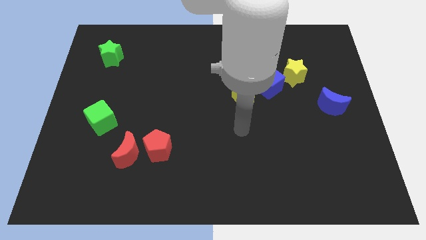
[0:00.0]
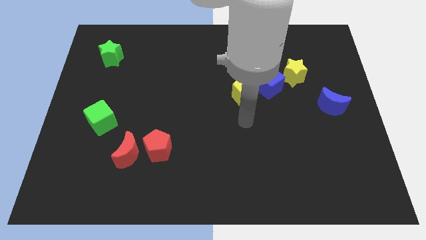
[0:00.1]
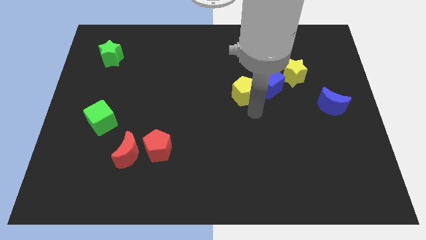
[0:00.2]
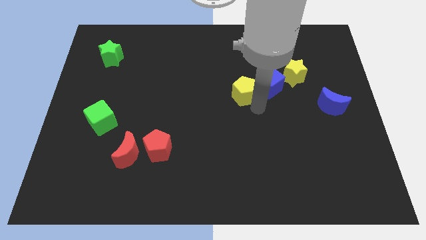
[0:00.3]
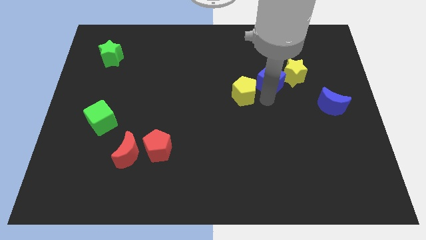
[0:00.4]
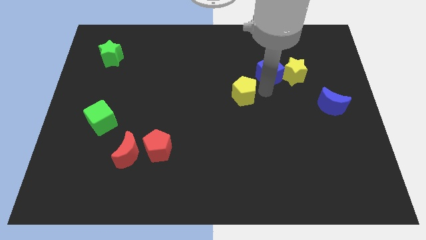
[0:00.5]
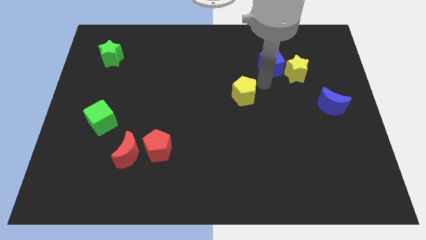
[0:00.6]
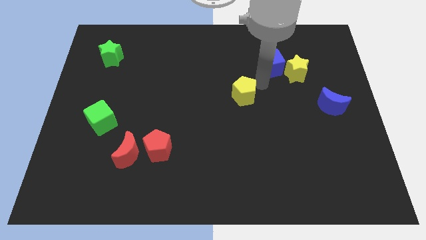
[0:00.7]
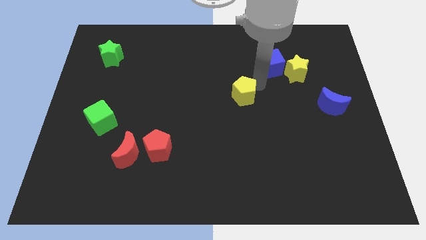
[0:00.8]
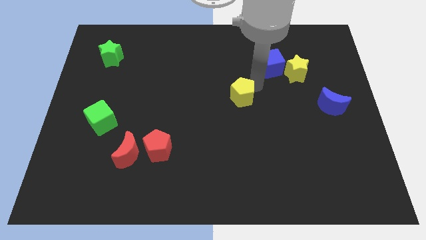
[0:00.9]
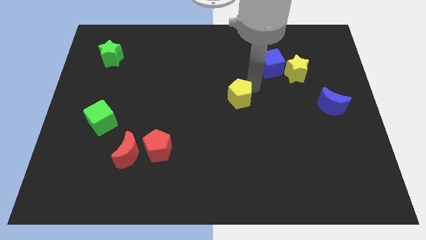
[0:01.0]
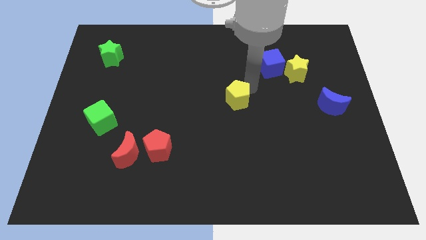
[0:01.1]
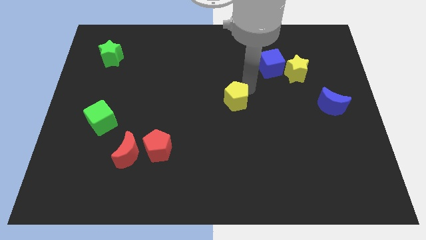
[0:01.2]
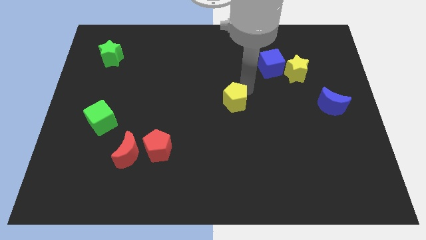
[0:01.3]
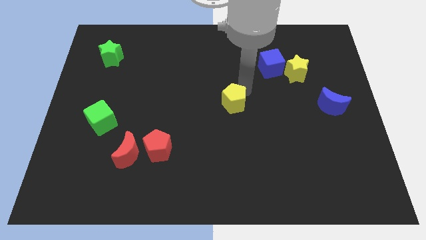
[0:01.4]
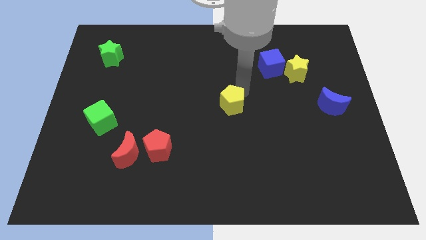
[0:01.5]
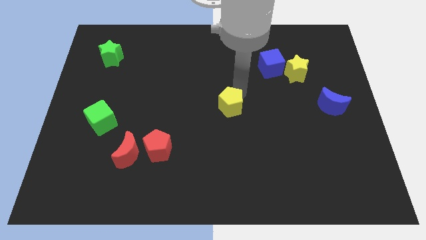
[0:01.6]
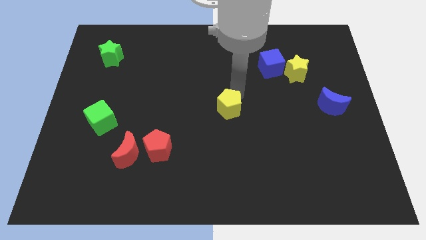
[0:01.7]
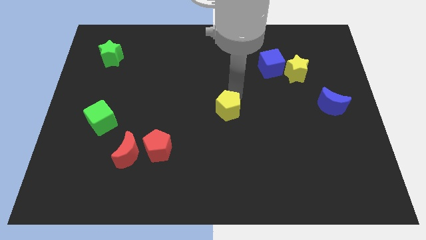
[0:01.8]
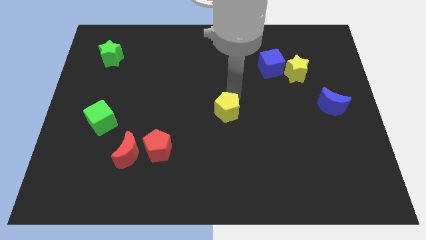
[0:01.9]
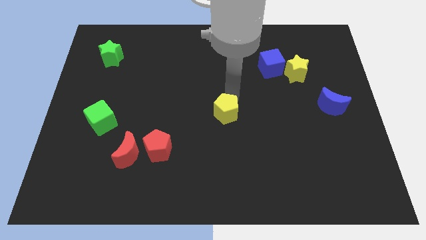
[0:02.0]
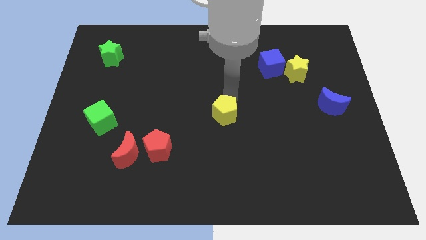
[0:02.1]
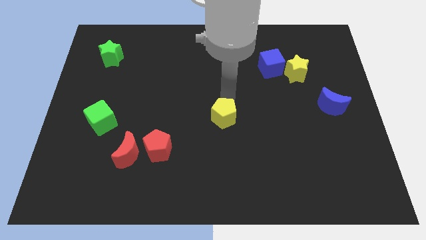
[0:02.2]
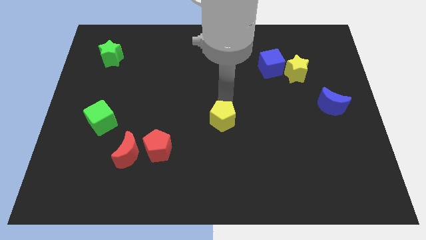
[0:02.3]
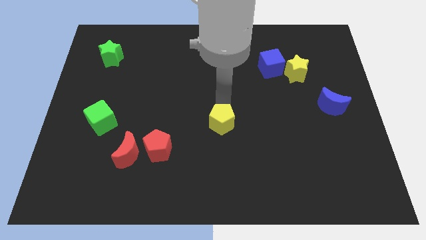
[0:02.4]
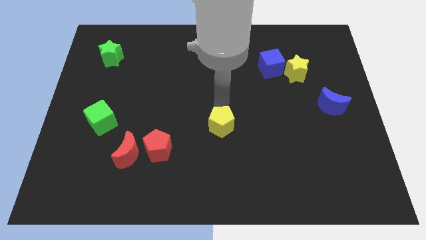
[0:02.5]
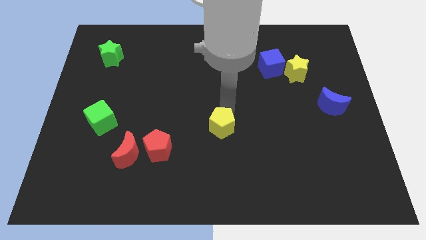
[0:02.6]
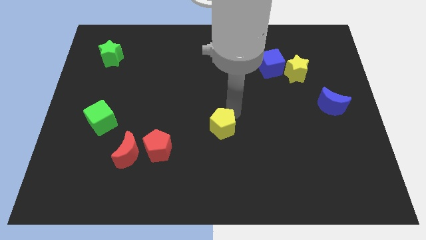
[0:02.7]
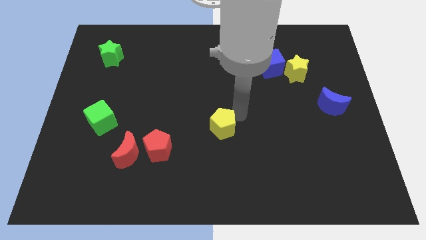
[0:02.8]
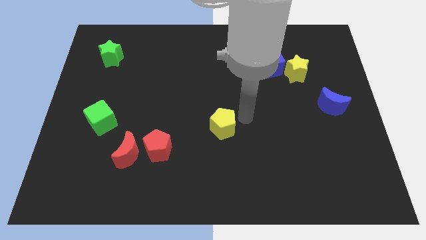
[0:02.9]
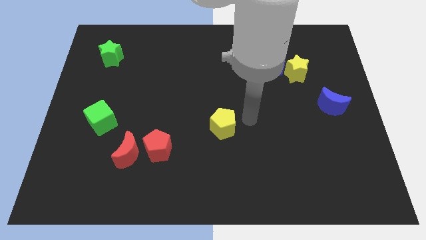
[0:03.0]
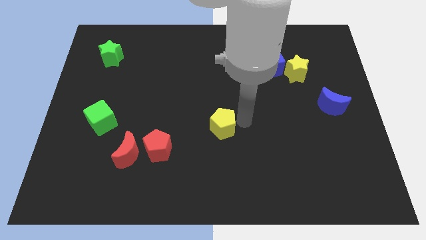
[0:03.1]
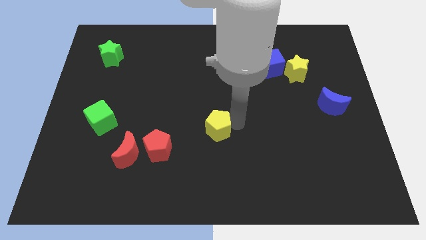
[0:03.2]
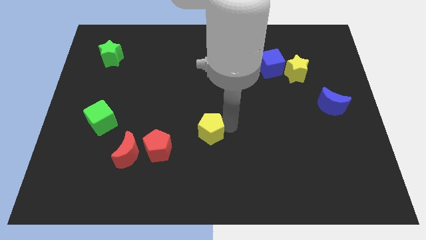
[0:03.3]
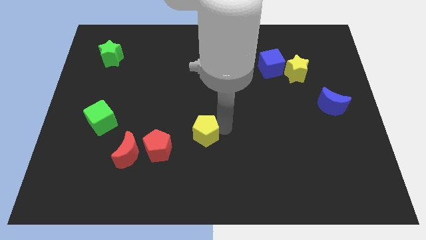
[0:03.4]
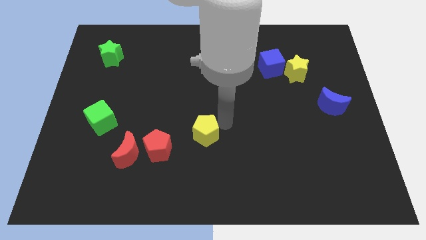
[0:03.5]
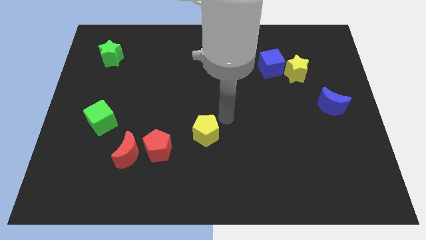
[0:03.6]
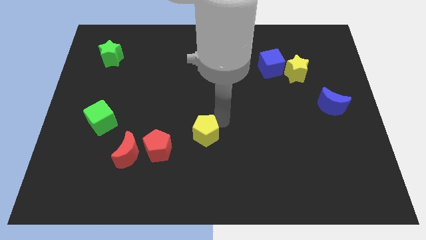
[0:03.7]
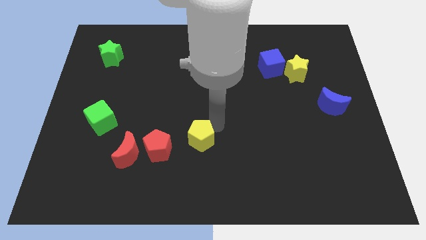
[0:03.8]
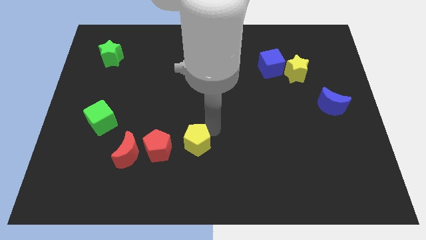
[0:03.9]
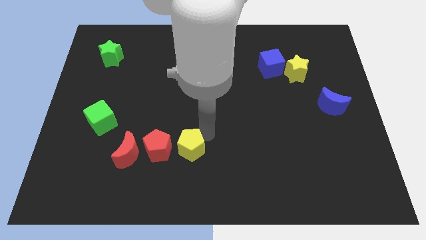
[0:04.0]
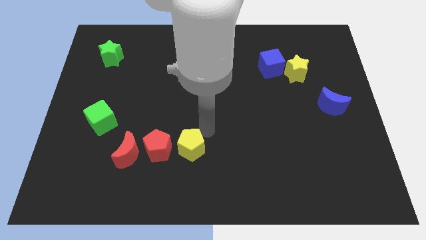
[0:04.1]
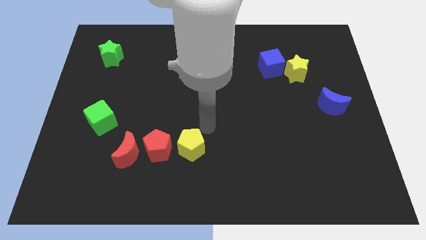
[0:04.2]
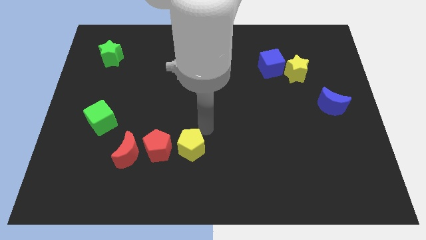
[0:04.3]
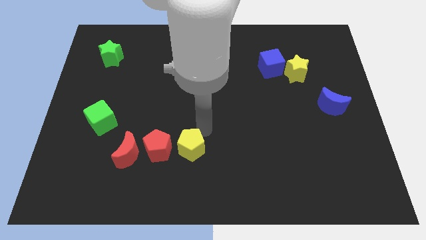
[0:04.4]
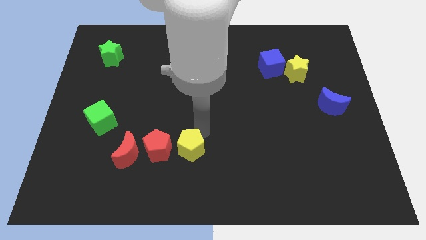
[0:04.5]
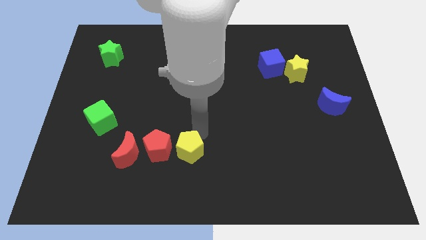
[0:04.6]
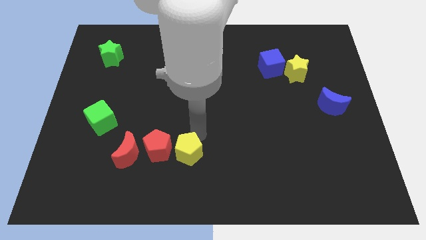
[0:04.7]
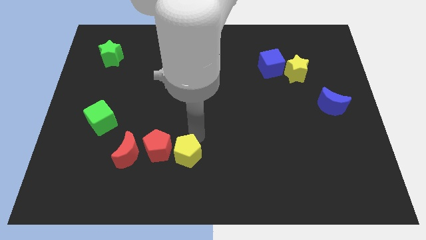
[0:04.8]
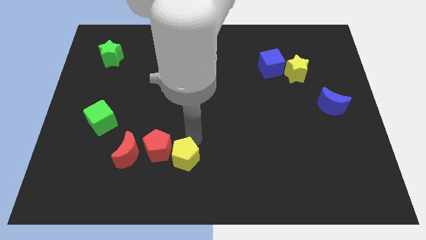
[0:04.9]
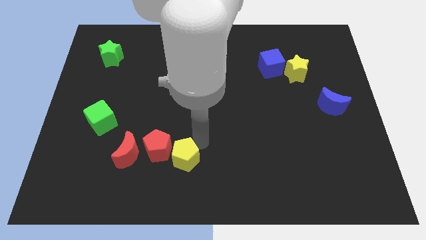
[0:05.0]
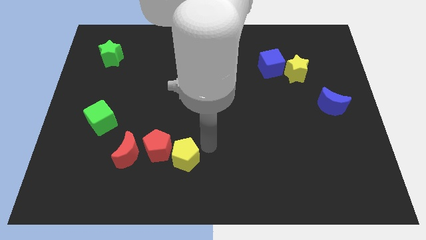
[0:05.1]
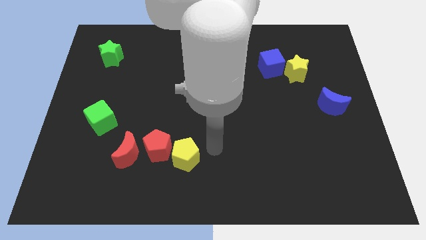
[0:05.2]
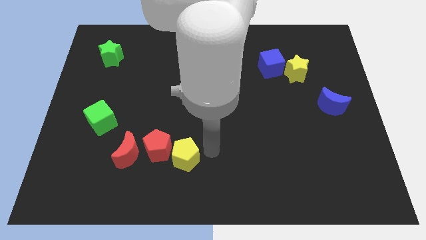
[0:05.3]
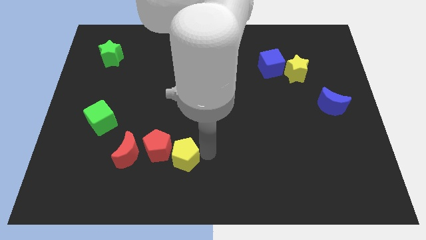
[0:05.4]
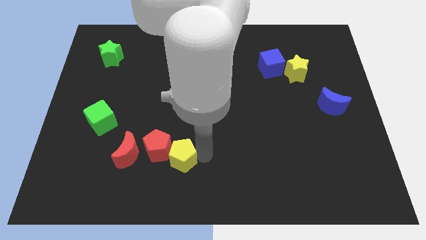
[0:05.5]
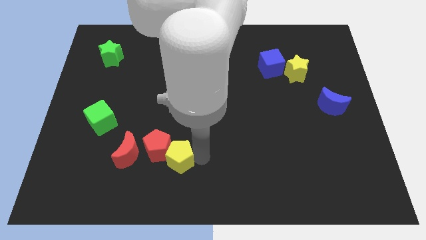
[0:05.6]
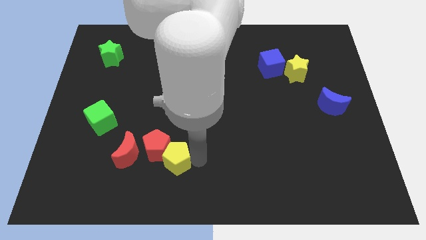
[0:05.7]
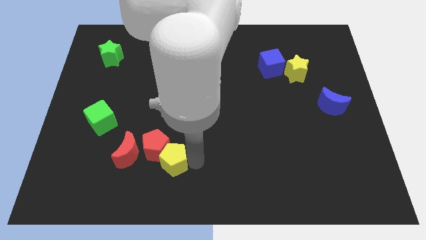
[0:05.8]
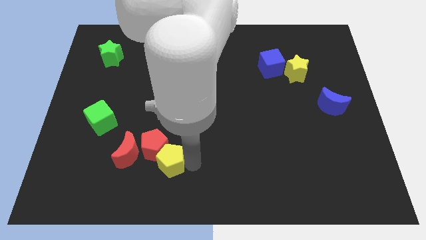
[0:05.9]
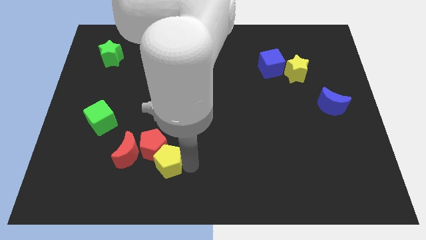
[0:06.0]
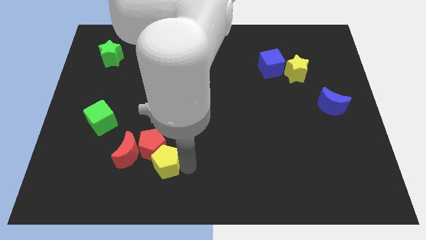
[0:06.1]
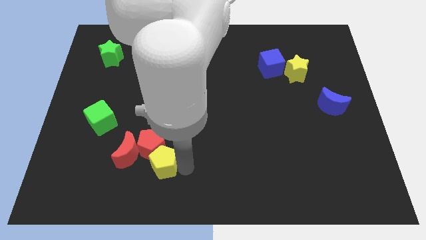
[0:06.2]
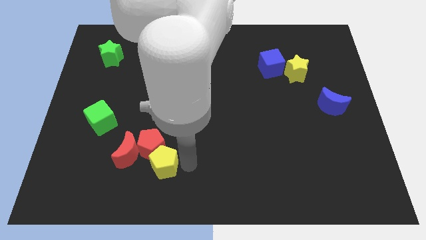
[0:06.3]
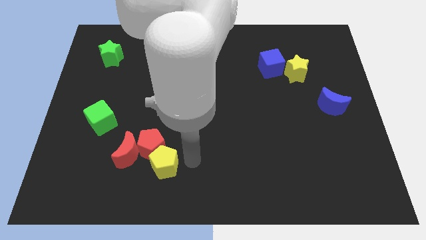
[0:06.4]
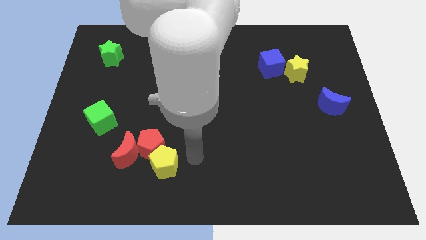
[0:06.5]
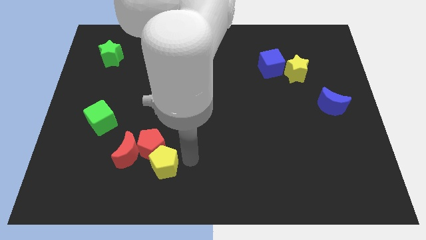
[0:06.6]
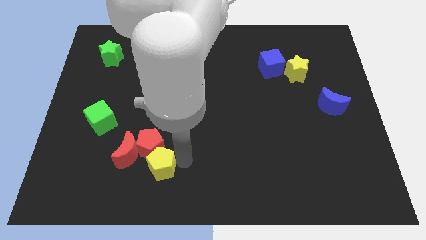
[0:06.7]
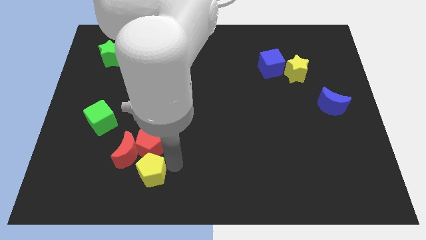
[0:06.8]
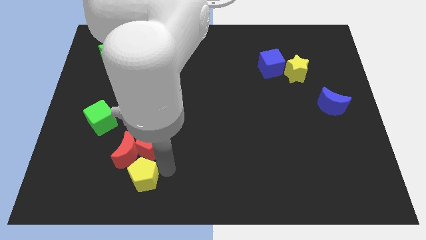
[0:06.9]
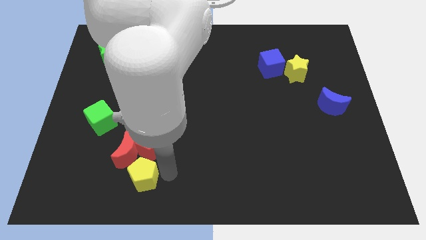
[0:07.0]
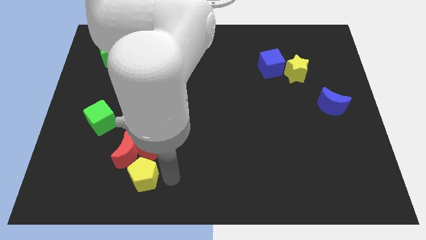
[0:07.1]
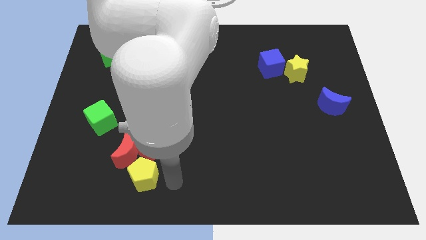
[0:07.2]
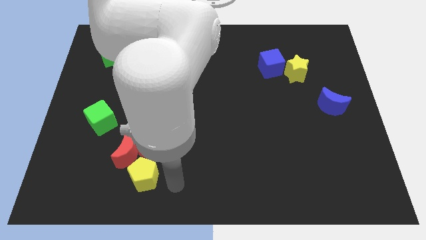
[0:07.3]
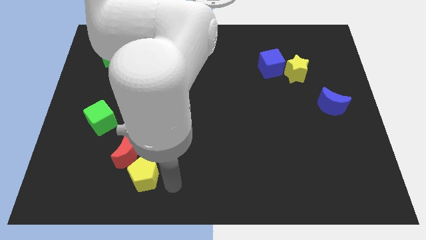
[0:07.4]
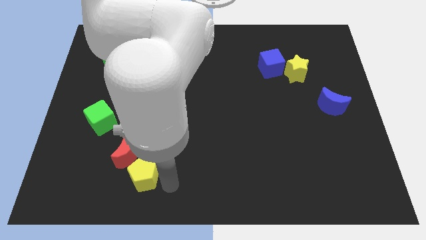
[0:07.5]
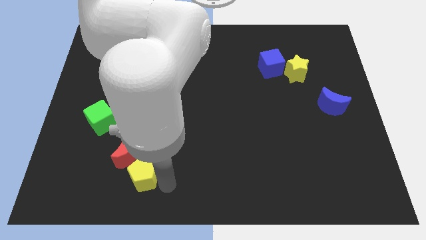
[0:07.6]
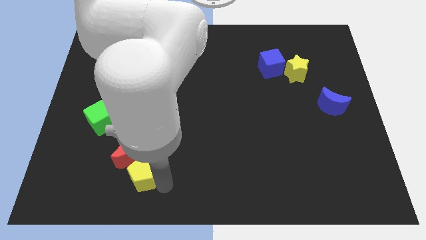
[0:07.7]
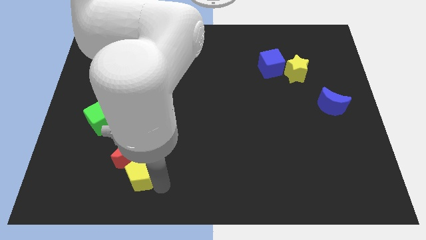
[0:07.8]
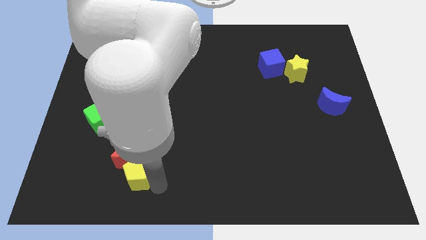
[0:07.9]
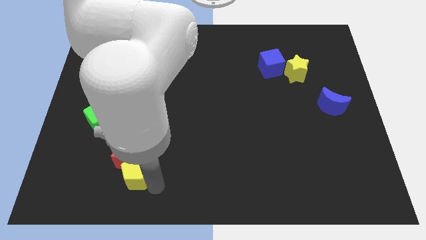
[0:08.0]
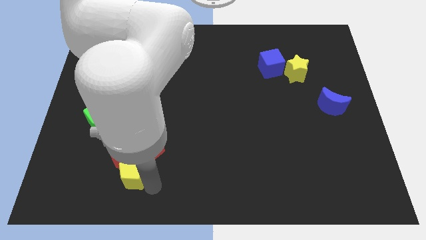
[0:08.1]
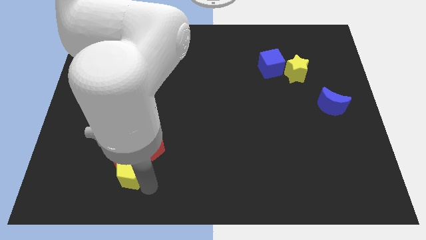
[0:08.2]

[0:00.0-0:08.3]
put the yellow pentagon diagonally down and to the left of the red moon
